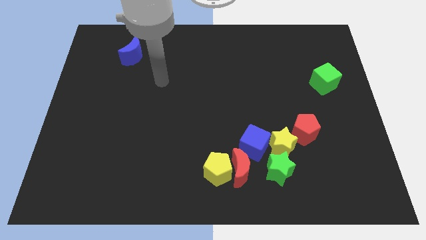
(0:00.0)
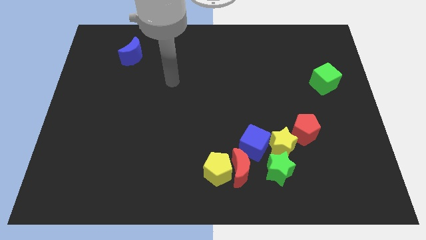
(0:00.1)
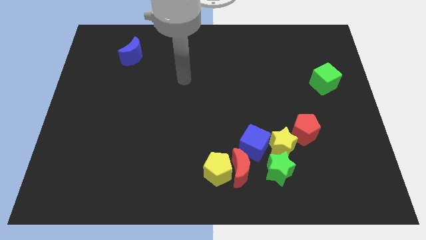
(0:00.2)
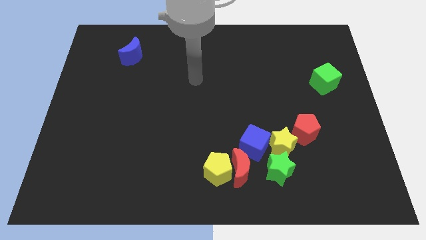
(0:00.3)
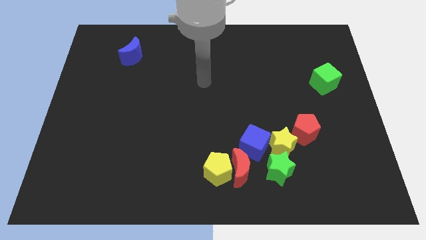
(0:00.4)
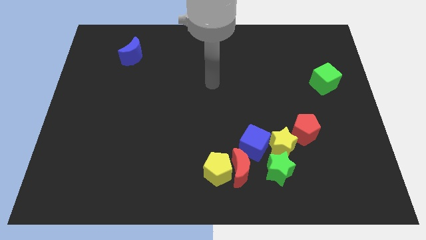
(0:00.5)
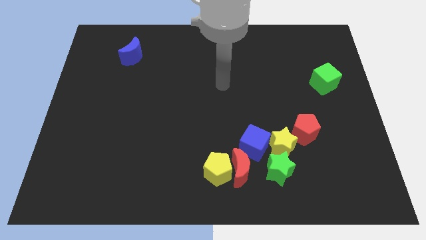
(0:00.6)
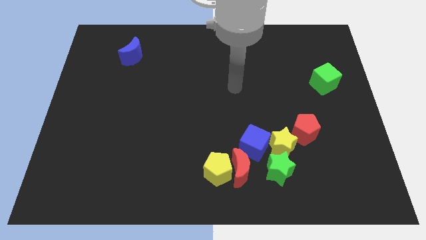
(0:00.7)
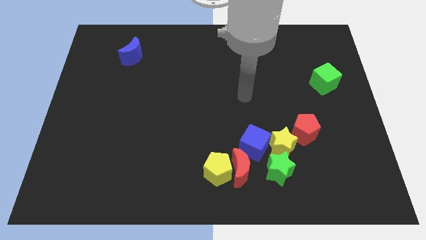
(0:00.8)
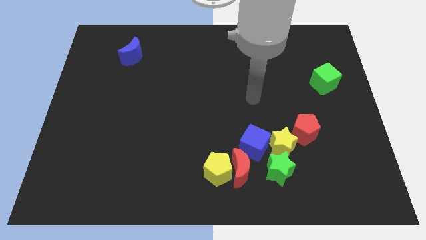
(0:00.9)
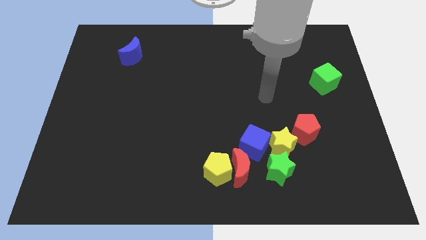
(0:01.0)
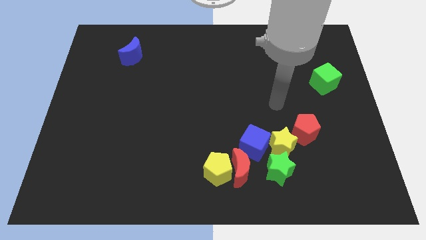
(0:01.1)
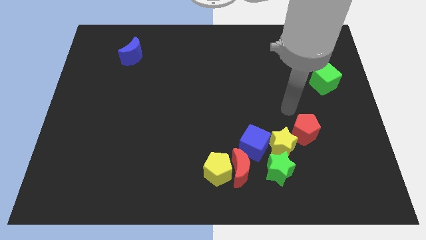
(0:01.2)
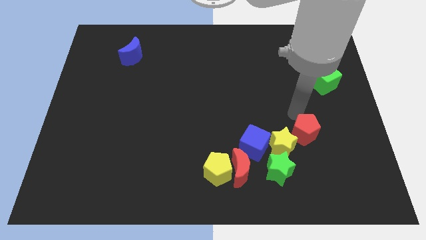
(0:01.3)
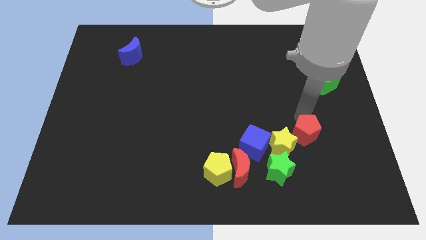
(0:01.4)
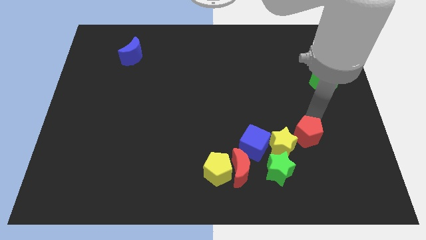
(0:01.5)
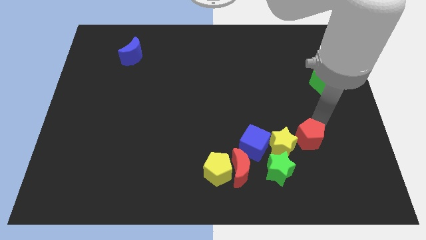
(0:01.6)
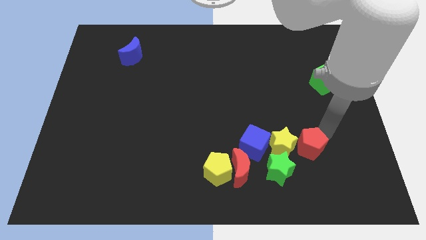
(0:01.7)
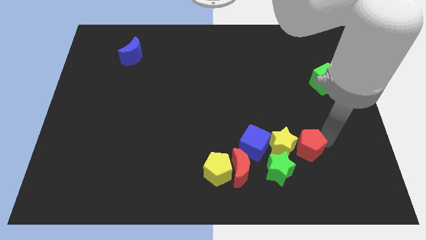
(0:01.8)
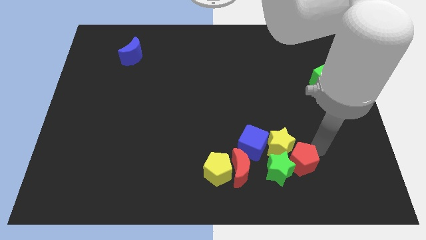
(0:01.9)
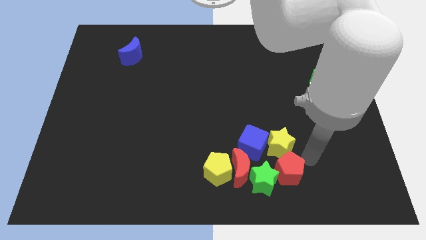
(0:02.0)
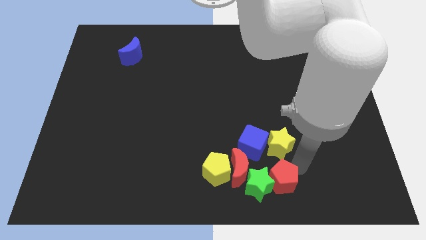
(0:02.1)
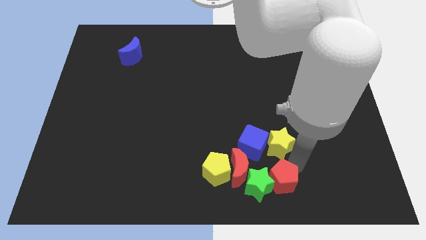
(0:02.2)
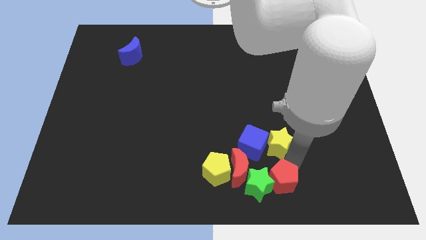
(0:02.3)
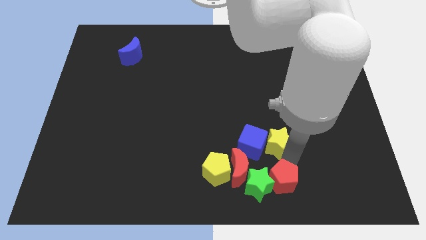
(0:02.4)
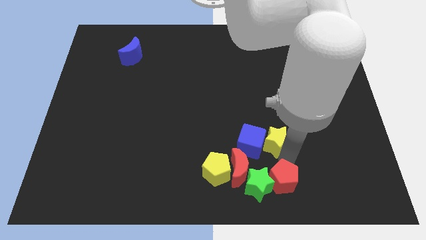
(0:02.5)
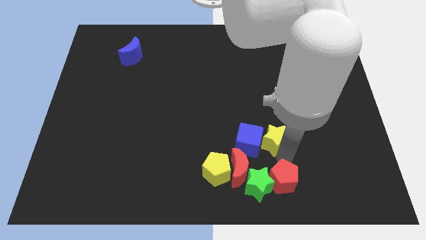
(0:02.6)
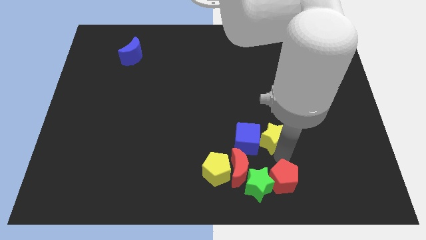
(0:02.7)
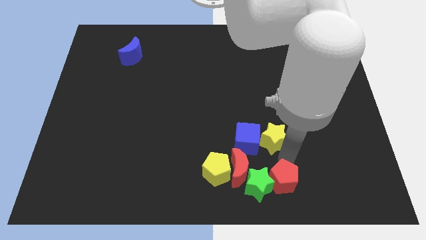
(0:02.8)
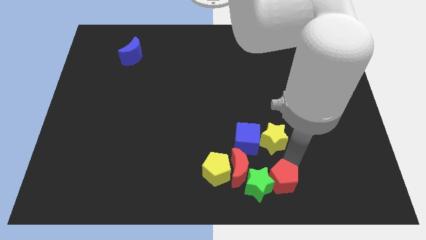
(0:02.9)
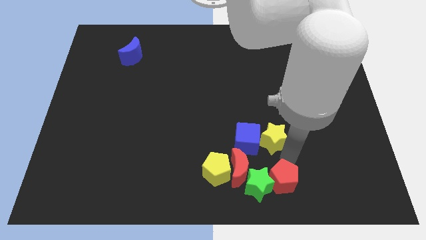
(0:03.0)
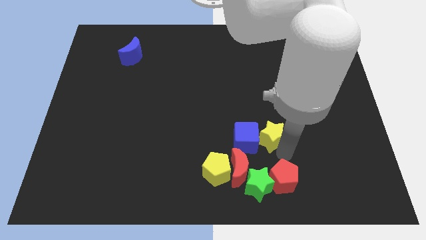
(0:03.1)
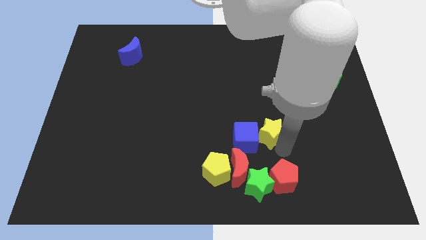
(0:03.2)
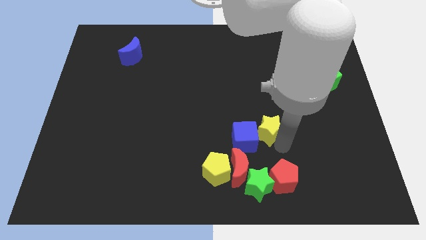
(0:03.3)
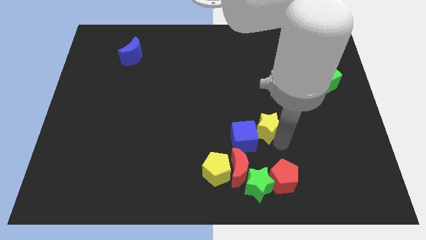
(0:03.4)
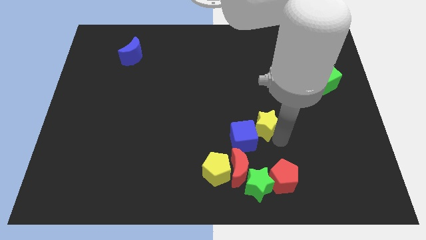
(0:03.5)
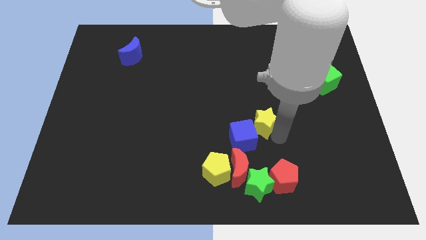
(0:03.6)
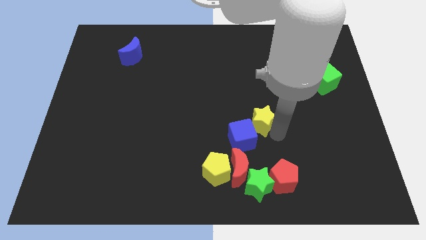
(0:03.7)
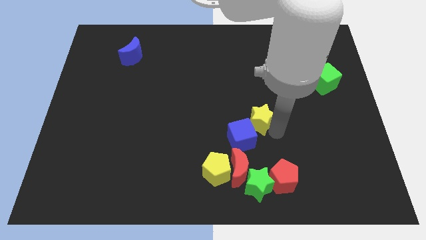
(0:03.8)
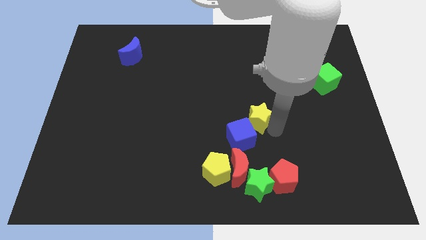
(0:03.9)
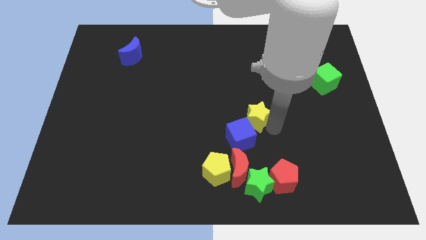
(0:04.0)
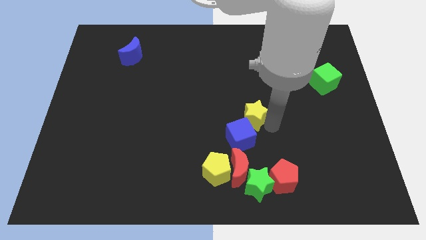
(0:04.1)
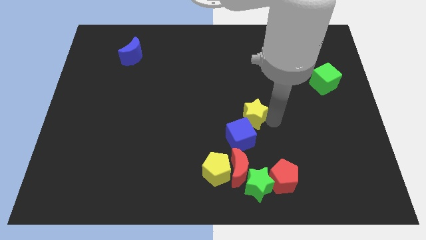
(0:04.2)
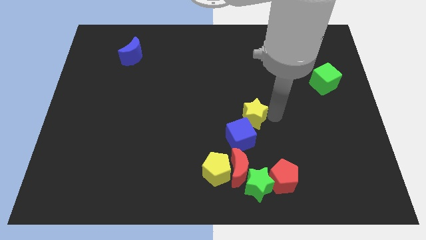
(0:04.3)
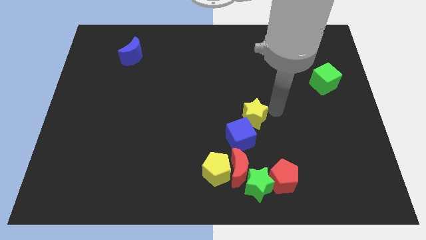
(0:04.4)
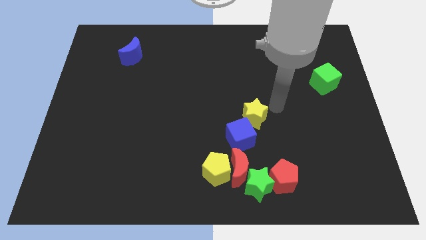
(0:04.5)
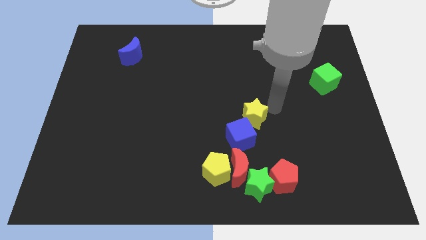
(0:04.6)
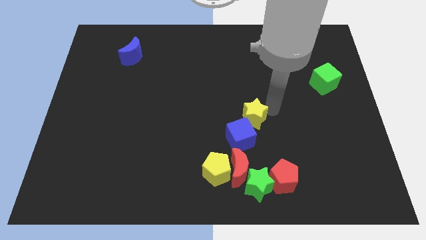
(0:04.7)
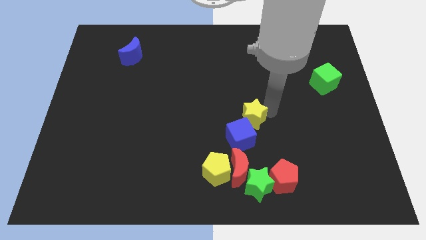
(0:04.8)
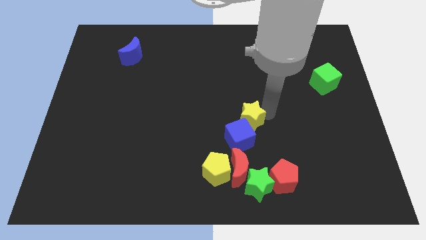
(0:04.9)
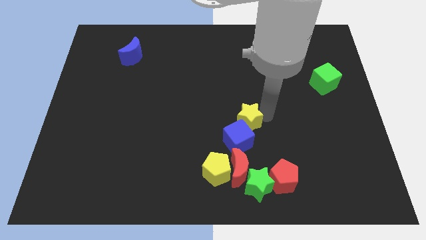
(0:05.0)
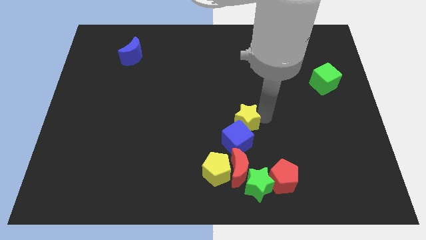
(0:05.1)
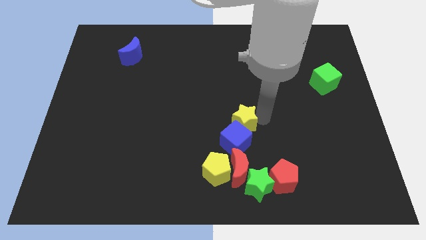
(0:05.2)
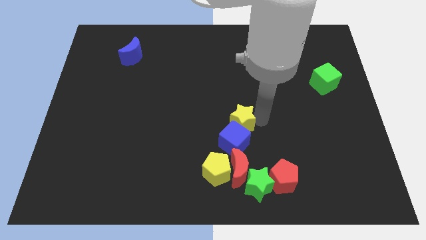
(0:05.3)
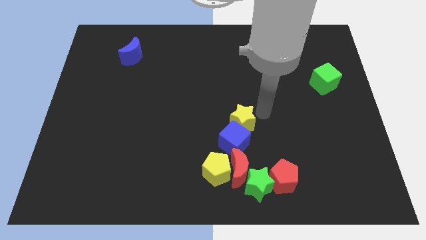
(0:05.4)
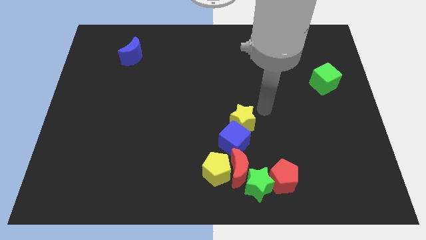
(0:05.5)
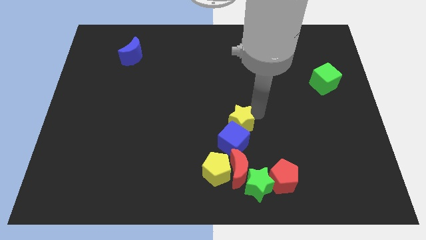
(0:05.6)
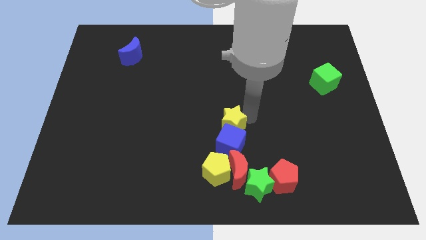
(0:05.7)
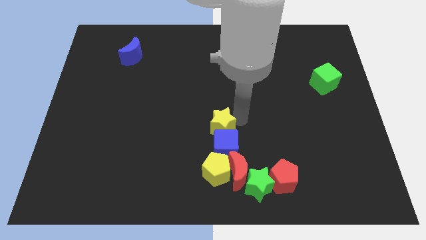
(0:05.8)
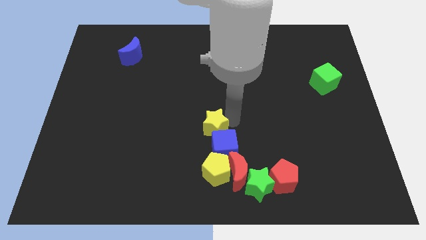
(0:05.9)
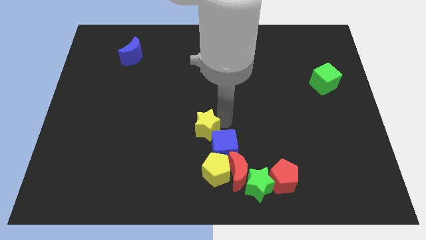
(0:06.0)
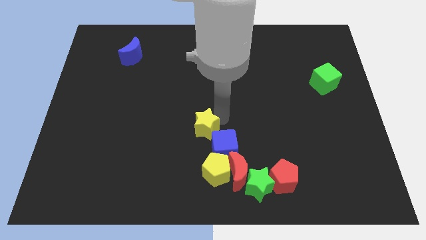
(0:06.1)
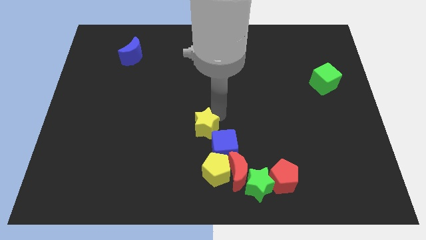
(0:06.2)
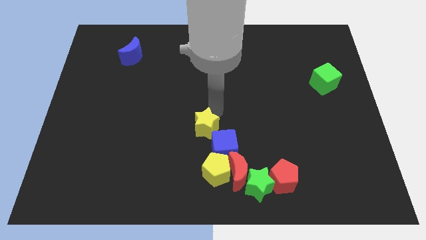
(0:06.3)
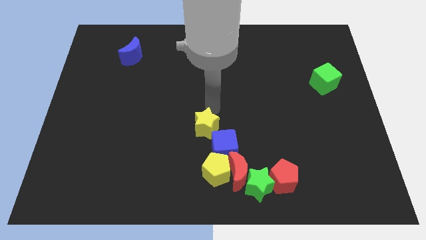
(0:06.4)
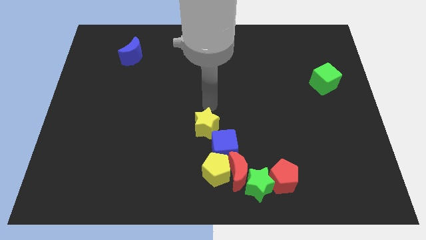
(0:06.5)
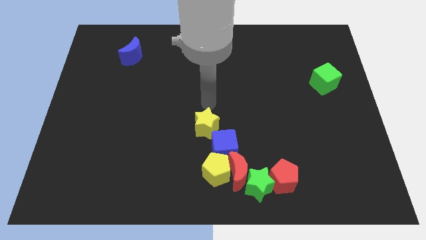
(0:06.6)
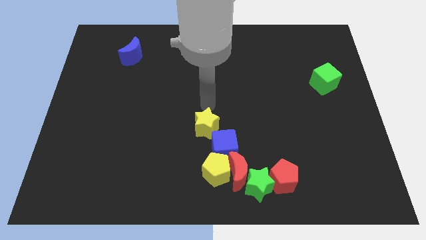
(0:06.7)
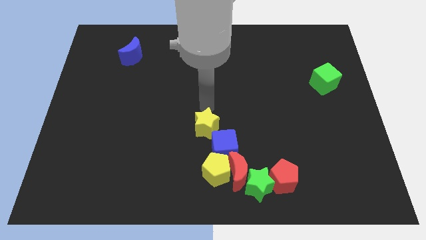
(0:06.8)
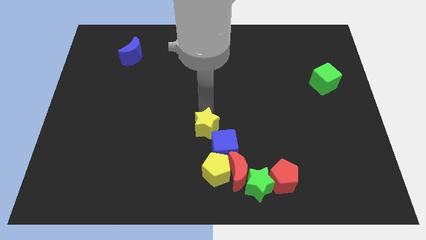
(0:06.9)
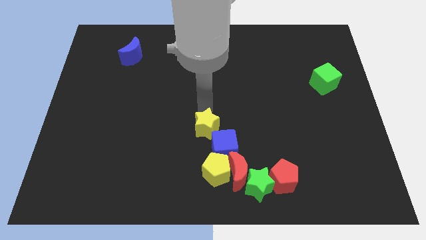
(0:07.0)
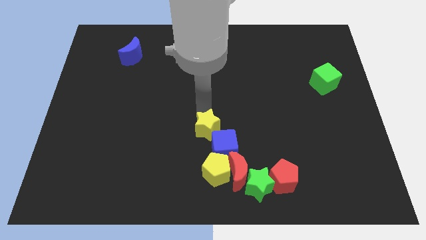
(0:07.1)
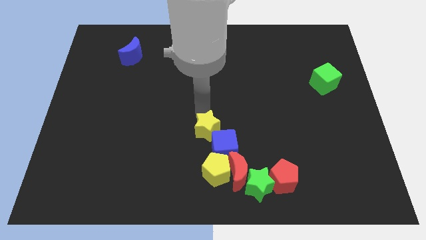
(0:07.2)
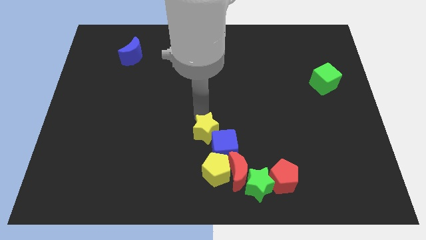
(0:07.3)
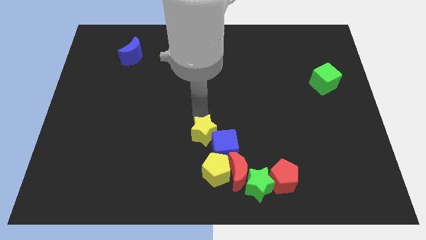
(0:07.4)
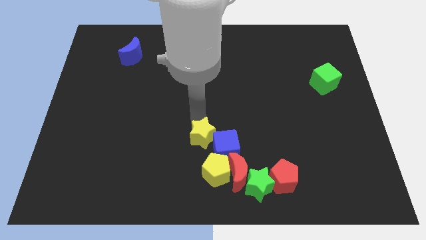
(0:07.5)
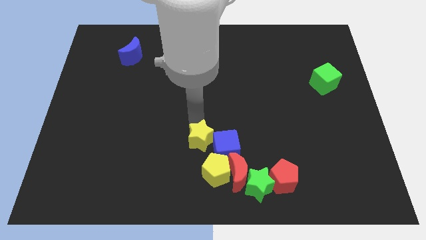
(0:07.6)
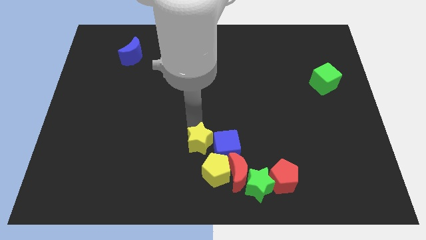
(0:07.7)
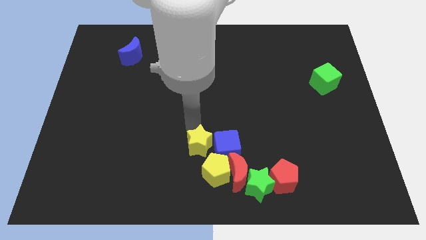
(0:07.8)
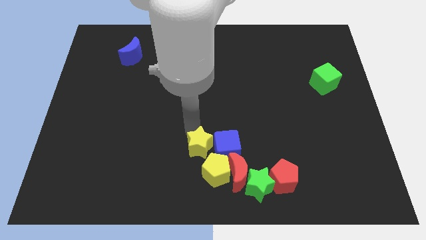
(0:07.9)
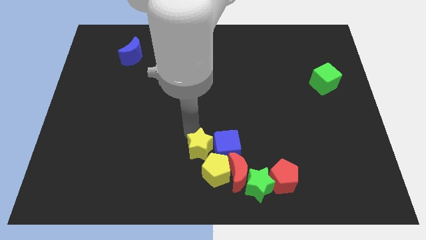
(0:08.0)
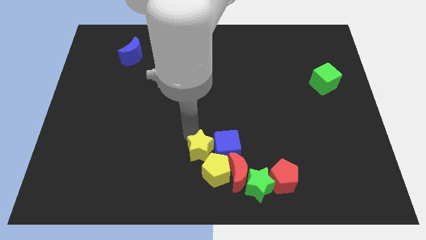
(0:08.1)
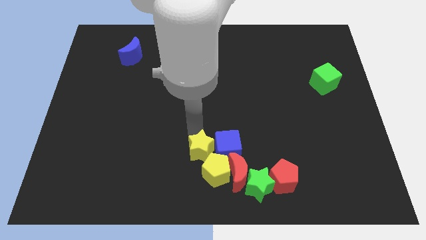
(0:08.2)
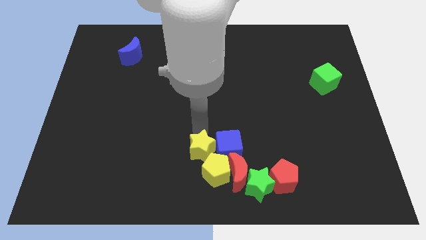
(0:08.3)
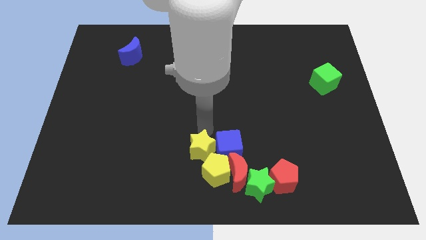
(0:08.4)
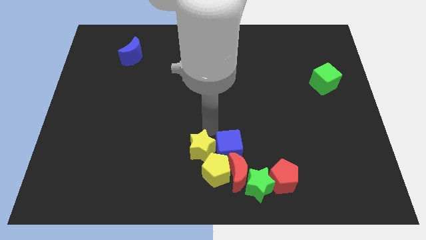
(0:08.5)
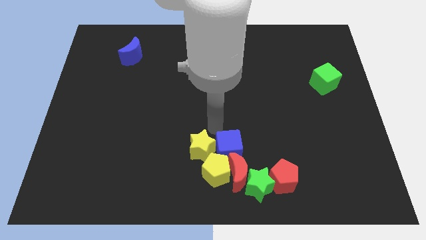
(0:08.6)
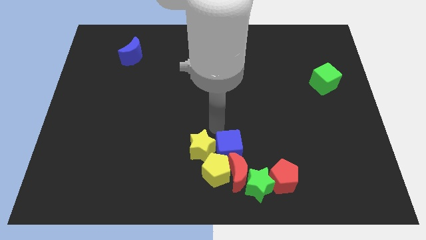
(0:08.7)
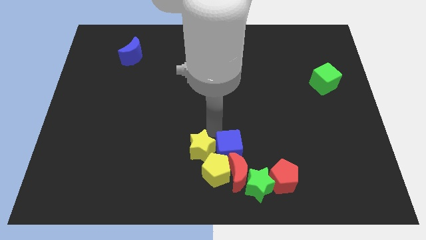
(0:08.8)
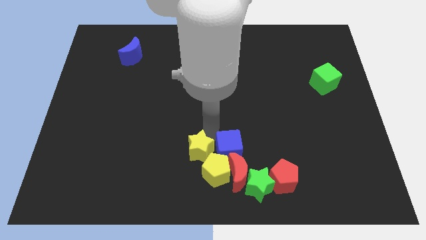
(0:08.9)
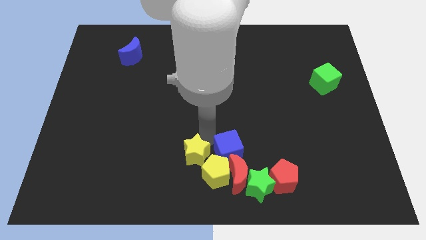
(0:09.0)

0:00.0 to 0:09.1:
put the yellow star to the left side of the yellow pentagon
